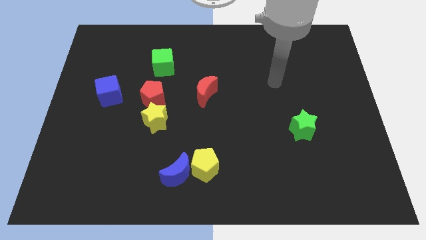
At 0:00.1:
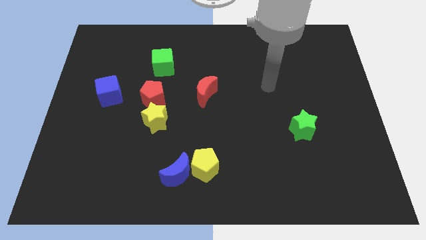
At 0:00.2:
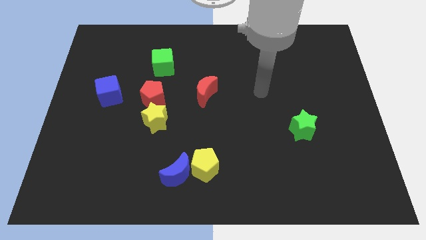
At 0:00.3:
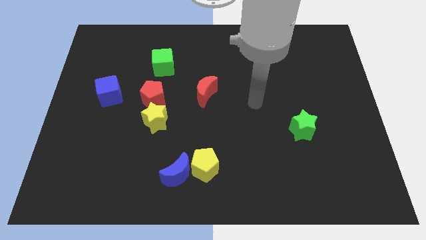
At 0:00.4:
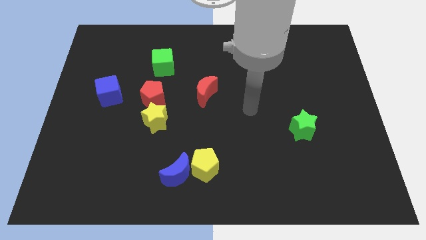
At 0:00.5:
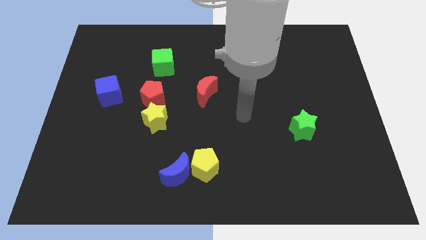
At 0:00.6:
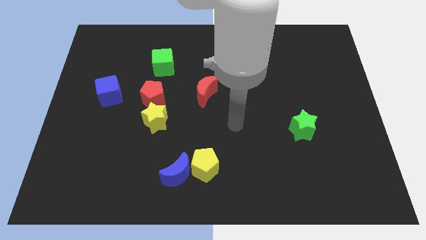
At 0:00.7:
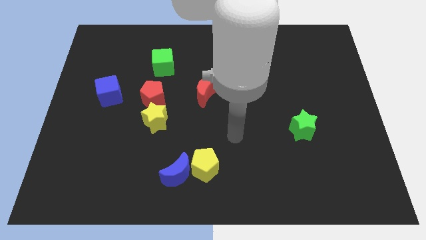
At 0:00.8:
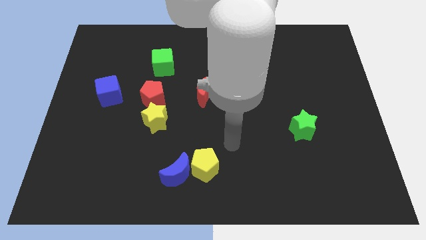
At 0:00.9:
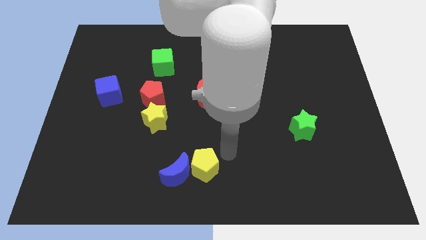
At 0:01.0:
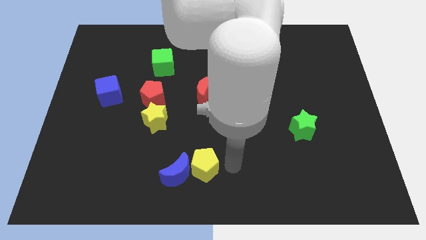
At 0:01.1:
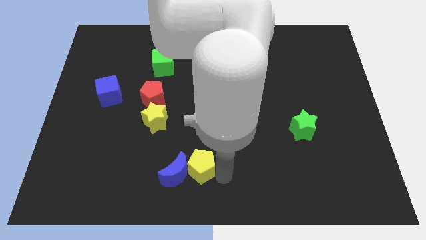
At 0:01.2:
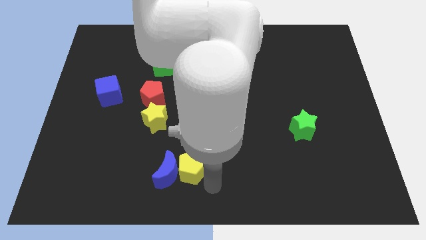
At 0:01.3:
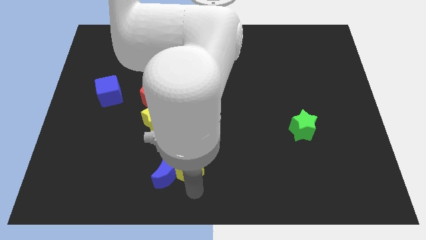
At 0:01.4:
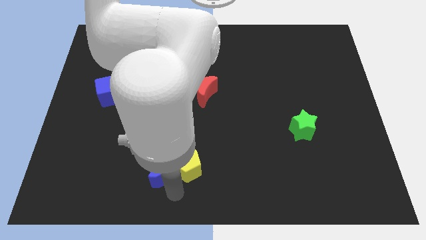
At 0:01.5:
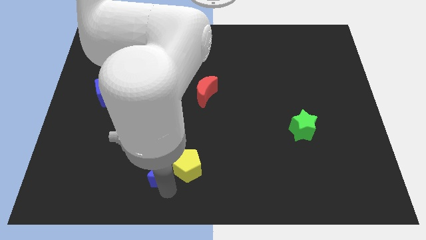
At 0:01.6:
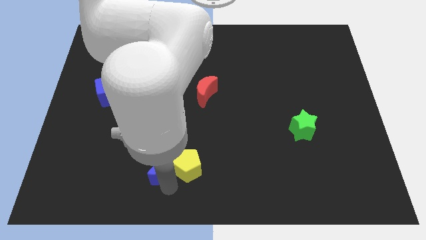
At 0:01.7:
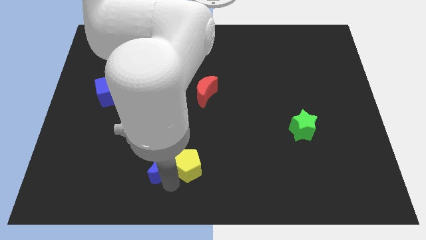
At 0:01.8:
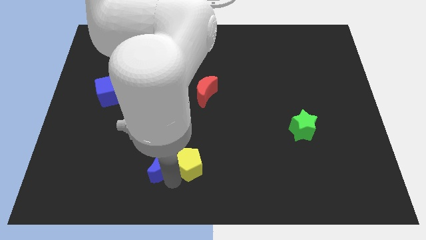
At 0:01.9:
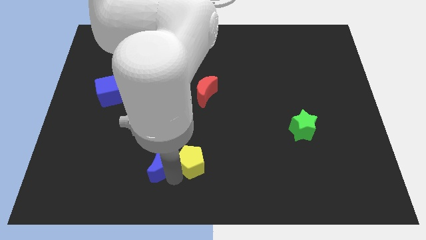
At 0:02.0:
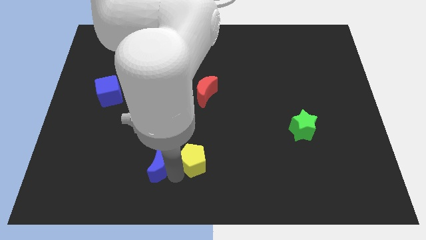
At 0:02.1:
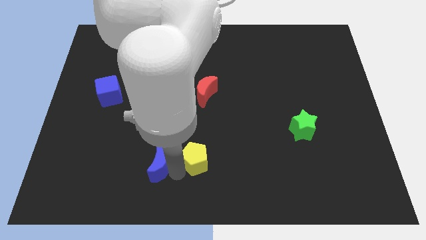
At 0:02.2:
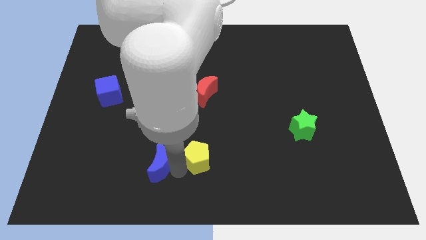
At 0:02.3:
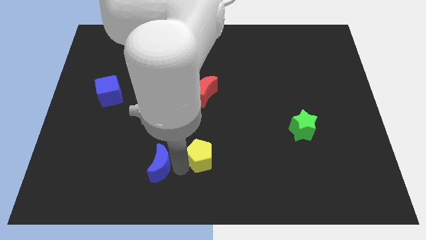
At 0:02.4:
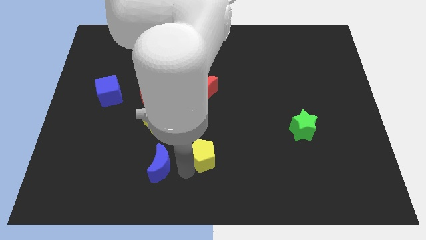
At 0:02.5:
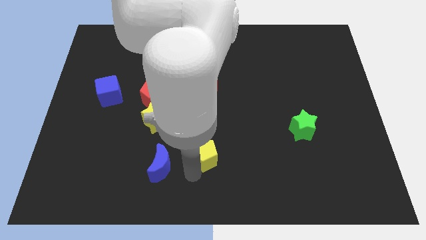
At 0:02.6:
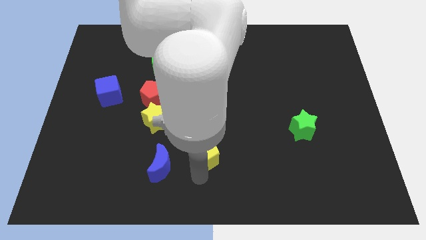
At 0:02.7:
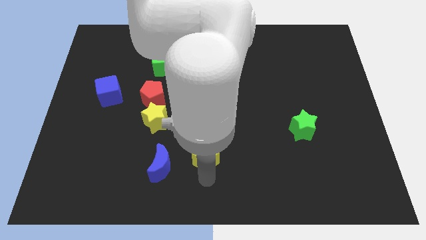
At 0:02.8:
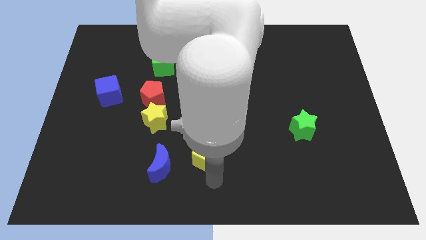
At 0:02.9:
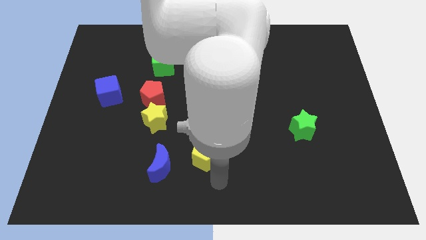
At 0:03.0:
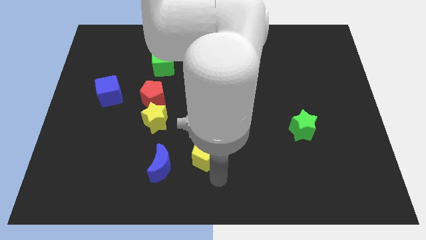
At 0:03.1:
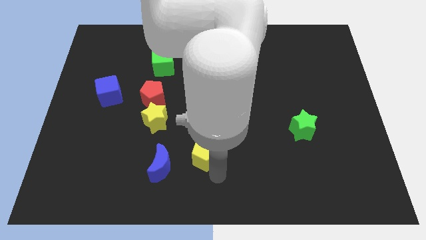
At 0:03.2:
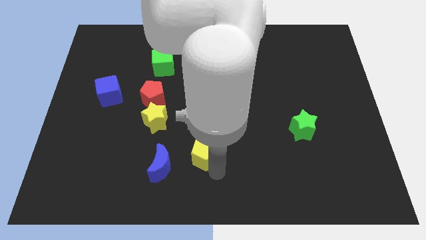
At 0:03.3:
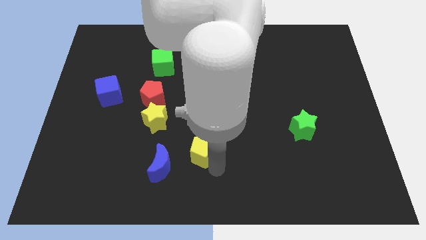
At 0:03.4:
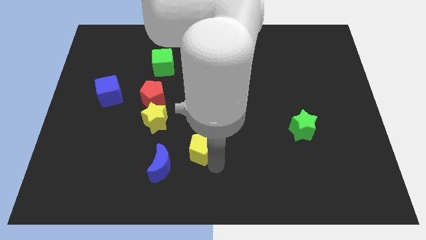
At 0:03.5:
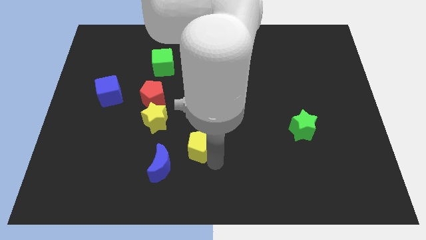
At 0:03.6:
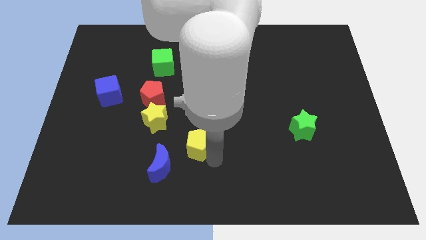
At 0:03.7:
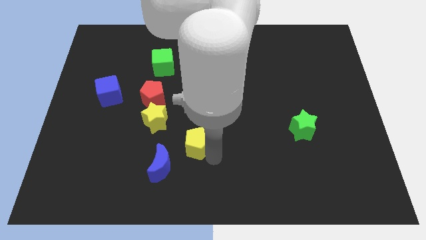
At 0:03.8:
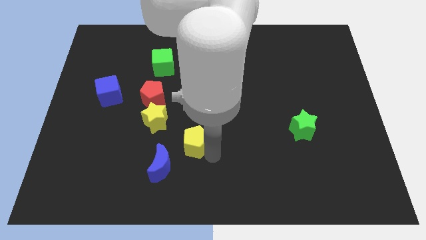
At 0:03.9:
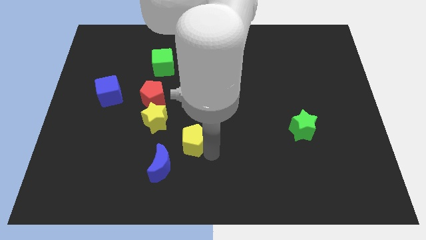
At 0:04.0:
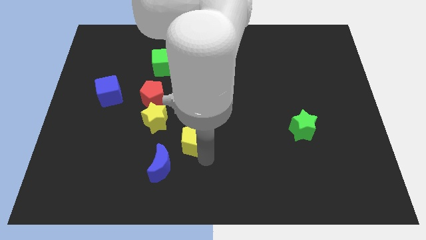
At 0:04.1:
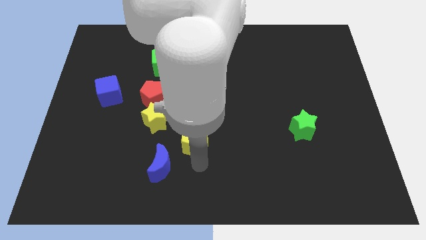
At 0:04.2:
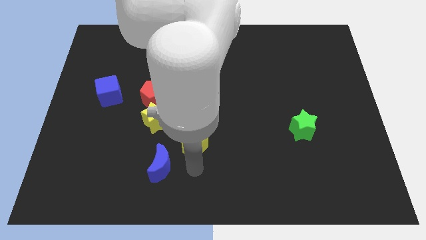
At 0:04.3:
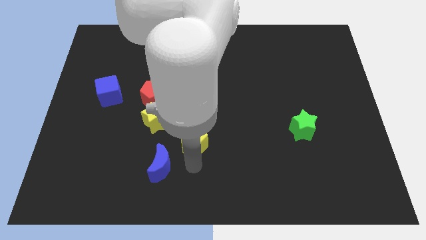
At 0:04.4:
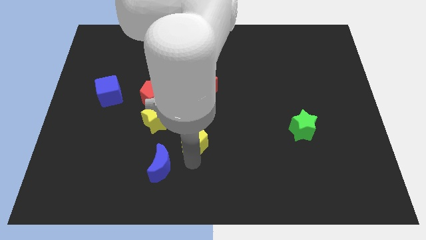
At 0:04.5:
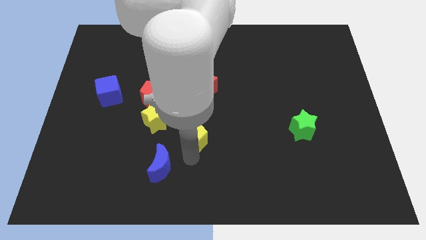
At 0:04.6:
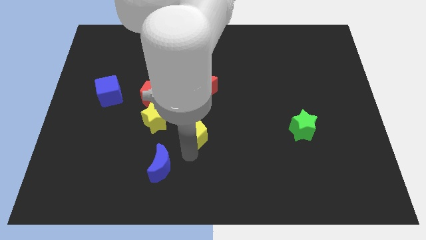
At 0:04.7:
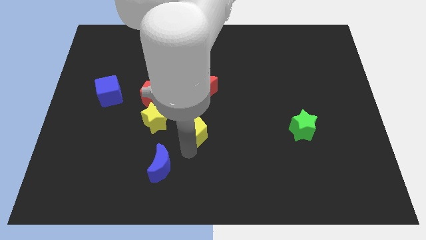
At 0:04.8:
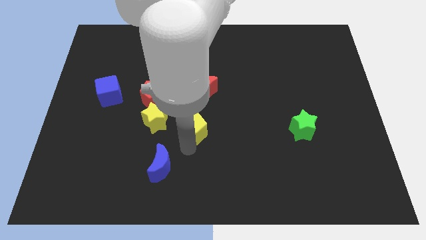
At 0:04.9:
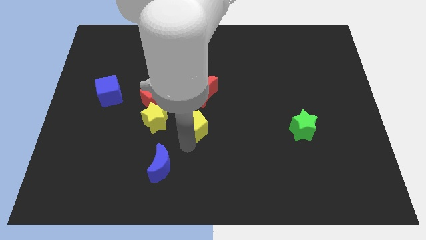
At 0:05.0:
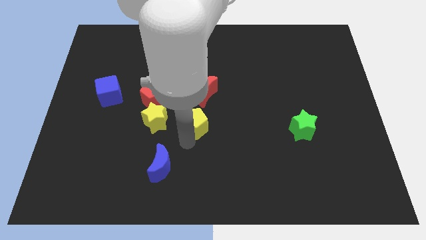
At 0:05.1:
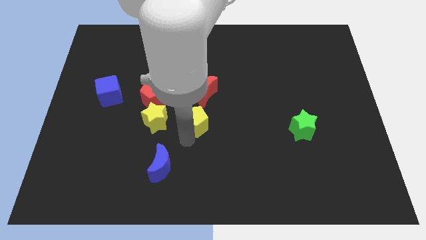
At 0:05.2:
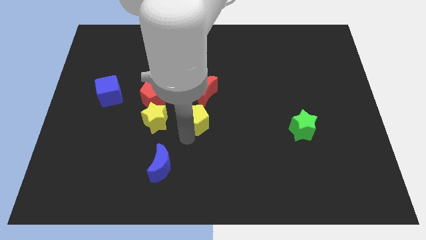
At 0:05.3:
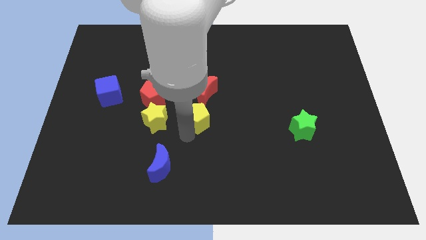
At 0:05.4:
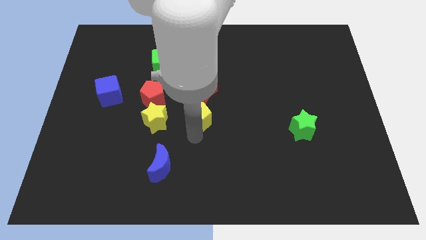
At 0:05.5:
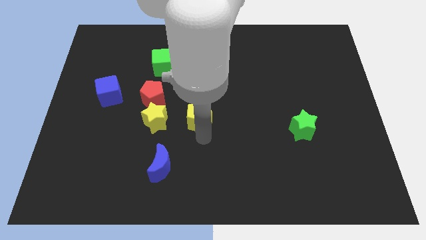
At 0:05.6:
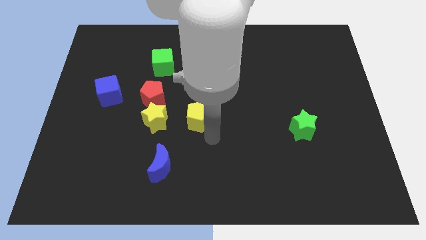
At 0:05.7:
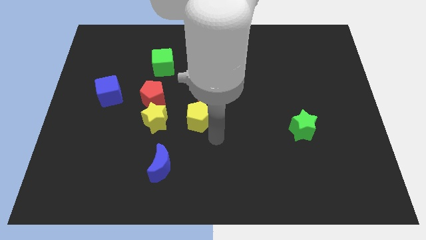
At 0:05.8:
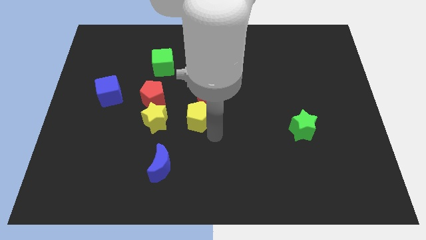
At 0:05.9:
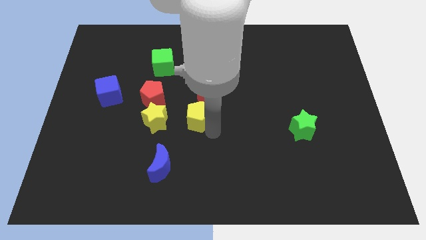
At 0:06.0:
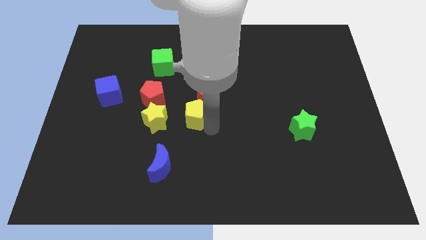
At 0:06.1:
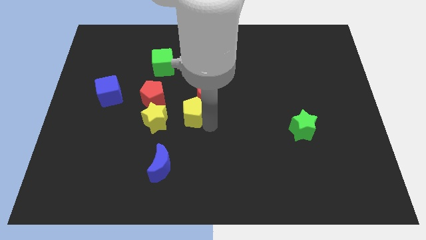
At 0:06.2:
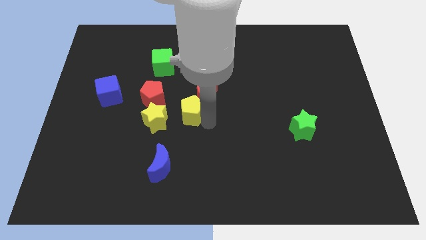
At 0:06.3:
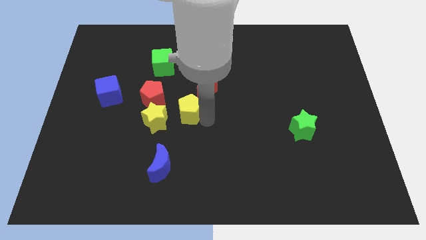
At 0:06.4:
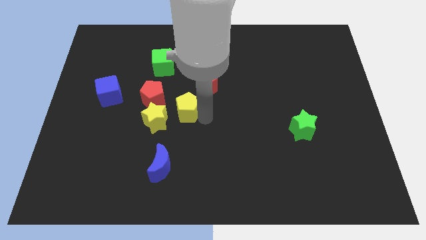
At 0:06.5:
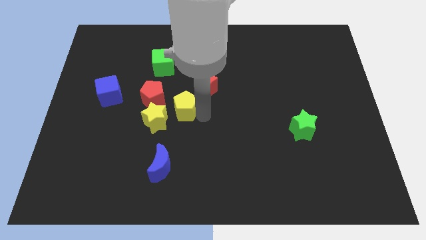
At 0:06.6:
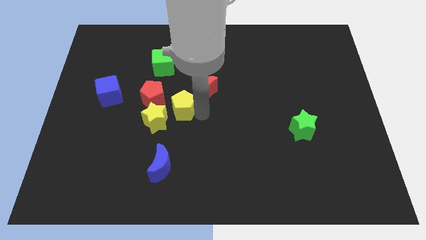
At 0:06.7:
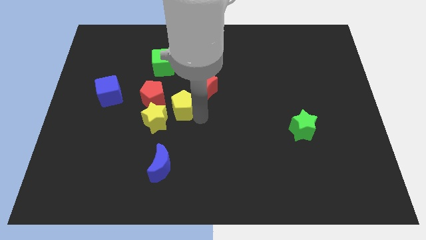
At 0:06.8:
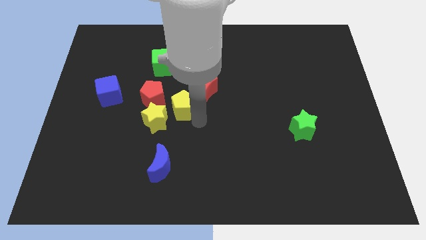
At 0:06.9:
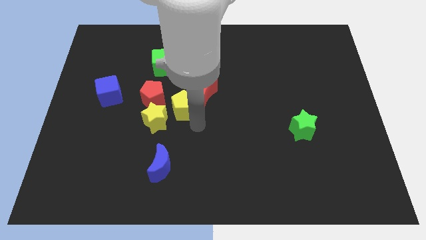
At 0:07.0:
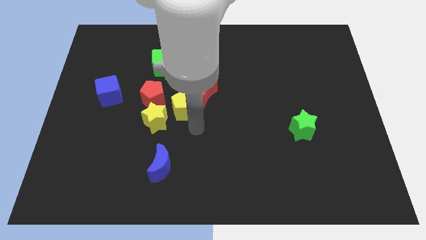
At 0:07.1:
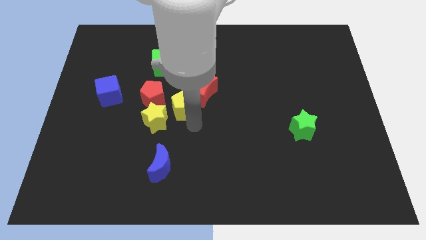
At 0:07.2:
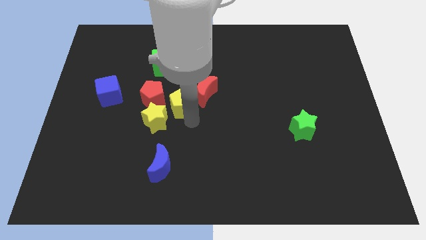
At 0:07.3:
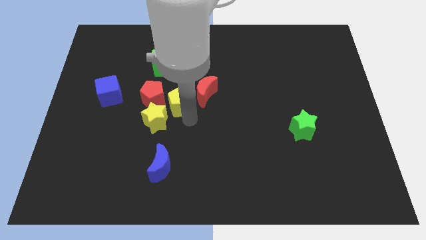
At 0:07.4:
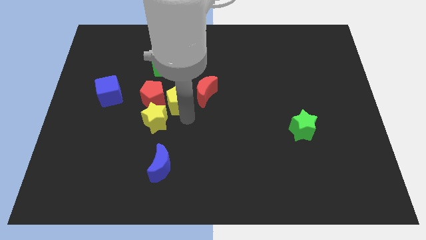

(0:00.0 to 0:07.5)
put the yellow pentagon close to the red pentagon
